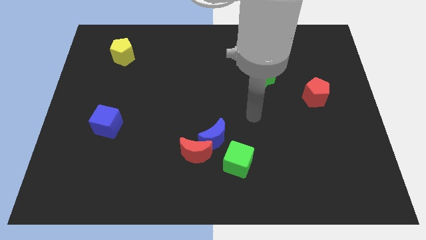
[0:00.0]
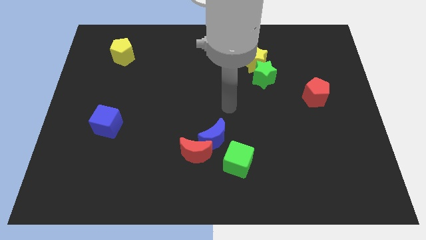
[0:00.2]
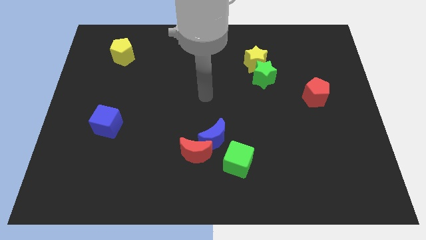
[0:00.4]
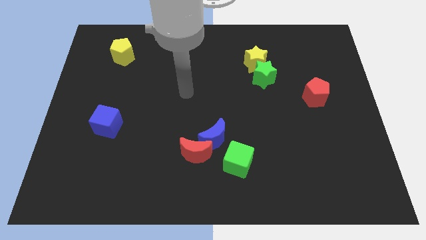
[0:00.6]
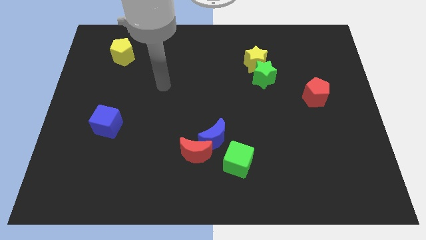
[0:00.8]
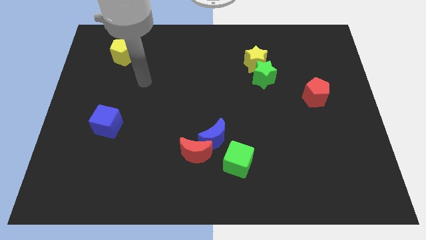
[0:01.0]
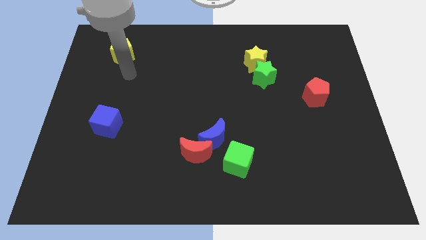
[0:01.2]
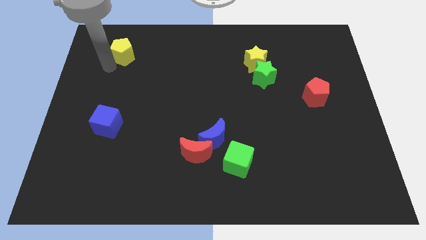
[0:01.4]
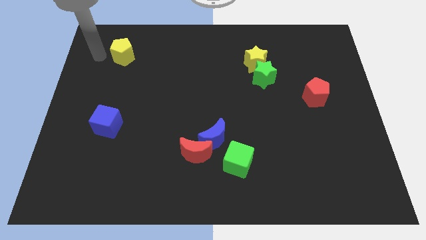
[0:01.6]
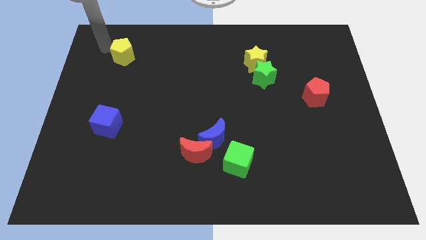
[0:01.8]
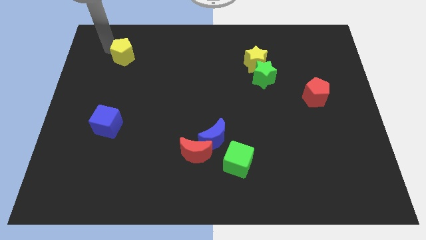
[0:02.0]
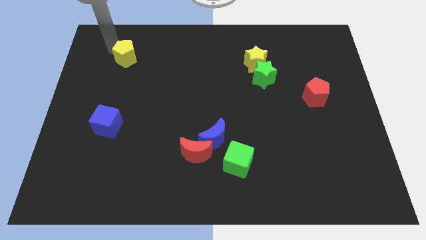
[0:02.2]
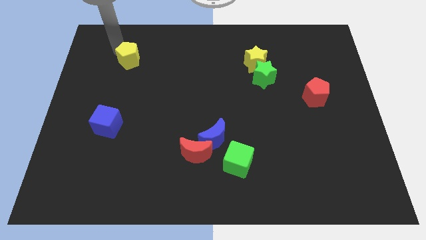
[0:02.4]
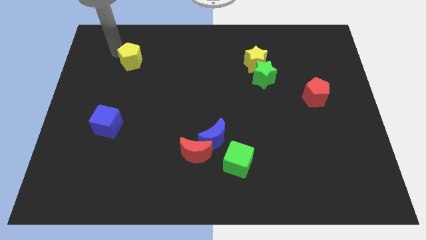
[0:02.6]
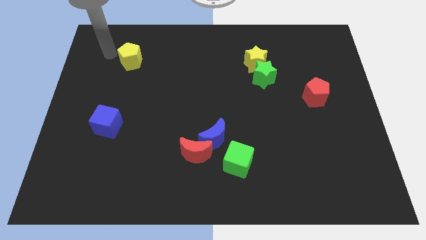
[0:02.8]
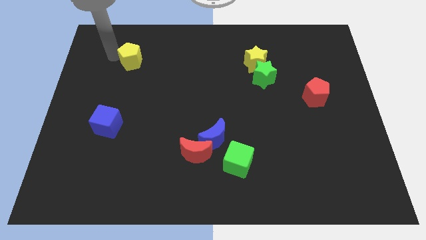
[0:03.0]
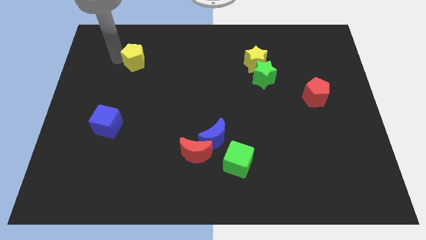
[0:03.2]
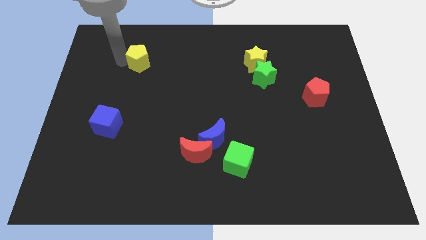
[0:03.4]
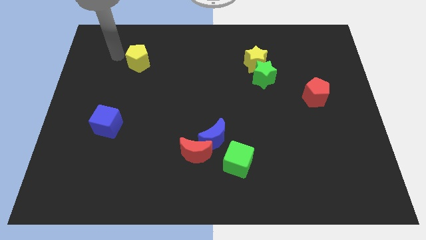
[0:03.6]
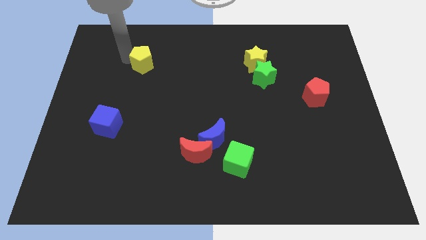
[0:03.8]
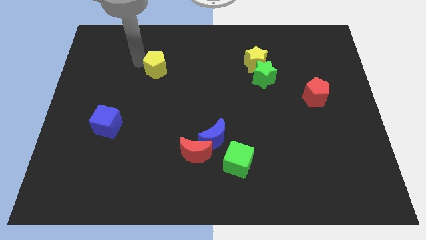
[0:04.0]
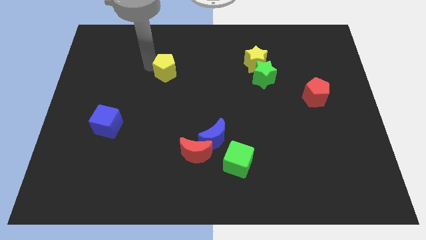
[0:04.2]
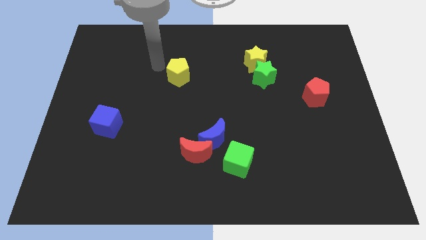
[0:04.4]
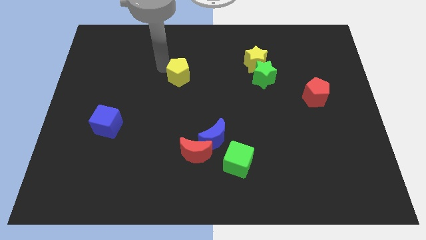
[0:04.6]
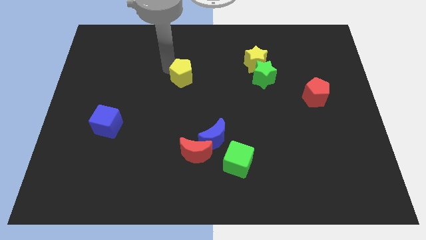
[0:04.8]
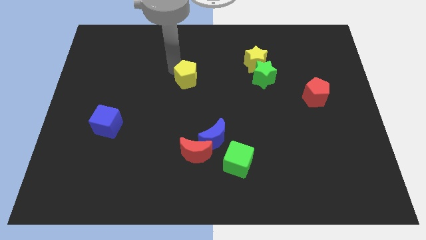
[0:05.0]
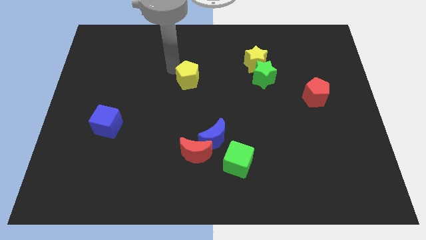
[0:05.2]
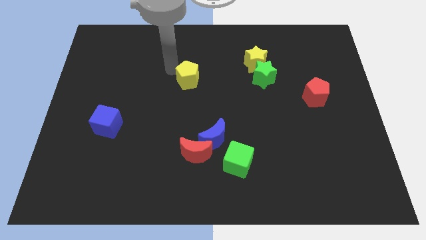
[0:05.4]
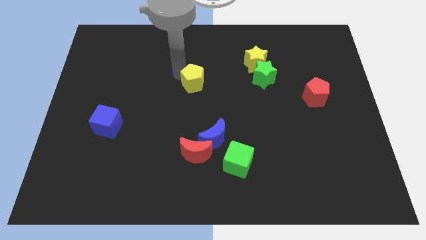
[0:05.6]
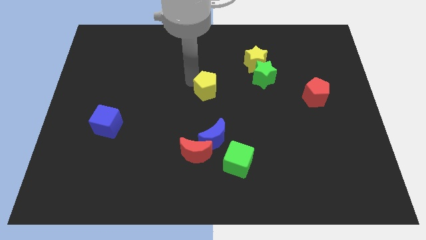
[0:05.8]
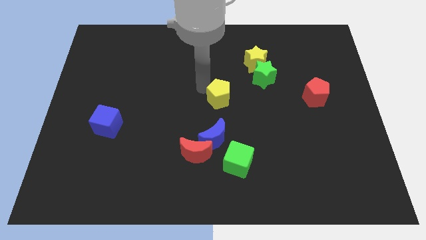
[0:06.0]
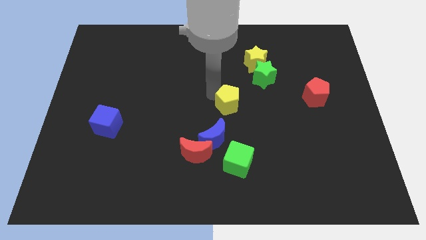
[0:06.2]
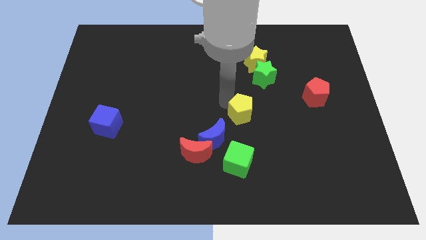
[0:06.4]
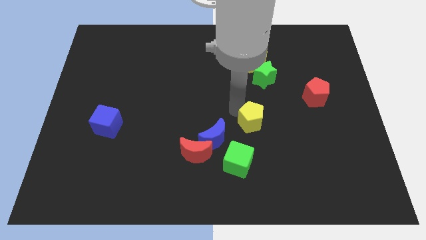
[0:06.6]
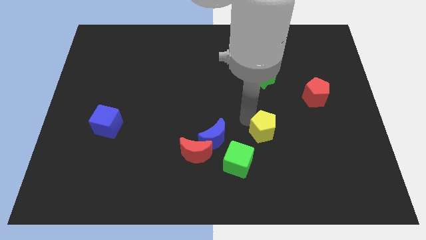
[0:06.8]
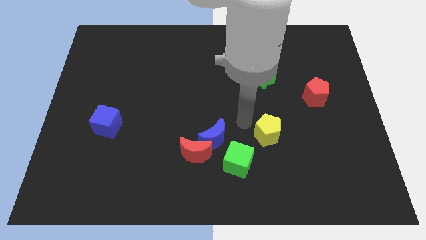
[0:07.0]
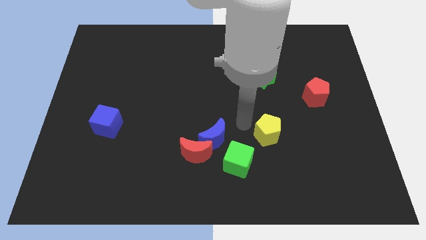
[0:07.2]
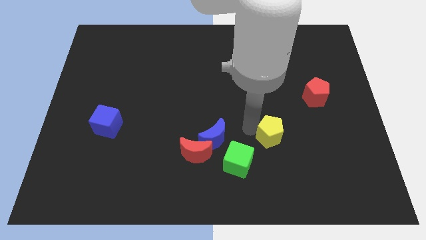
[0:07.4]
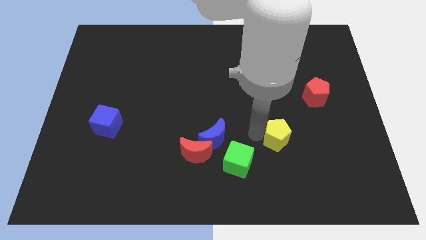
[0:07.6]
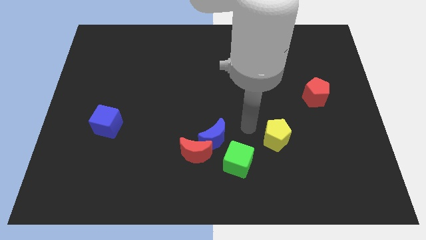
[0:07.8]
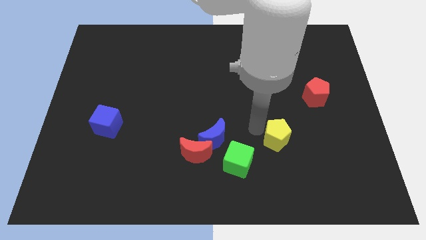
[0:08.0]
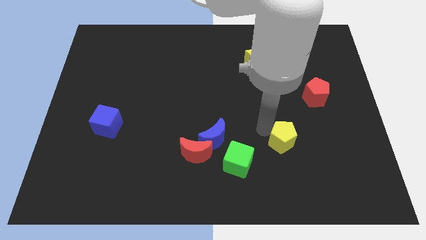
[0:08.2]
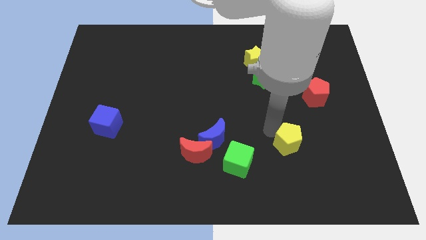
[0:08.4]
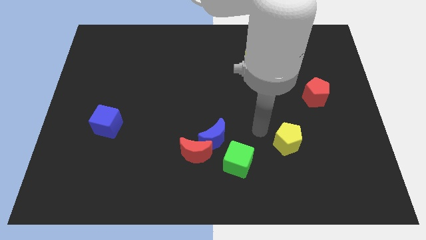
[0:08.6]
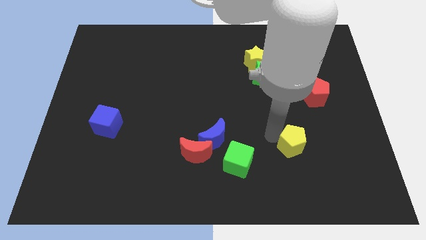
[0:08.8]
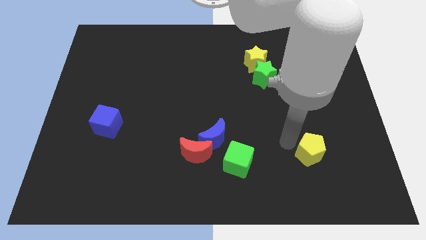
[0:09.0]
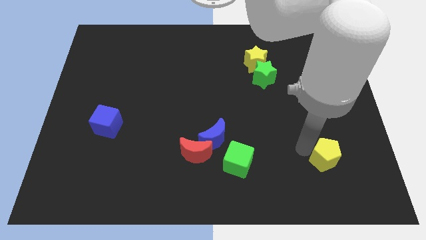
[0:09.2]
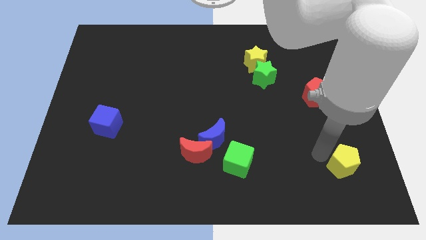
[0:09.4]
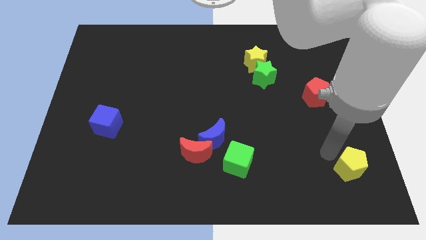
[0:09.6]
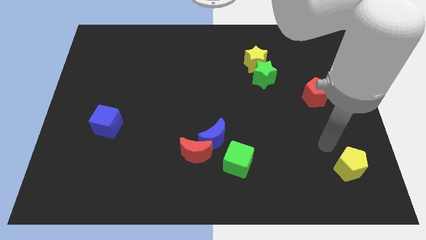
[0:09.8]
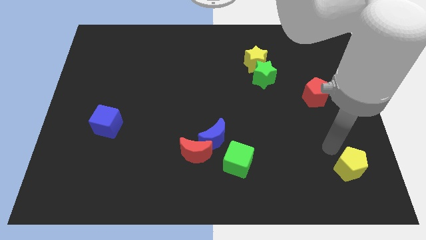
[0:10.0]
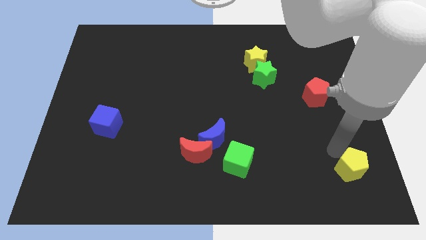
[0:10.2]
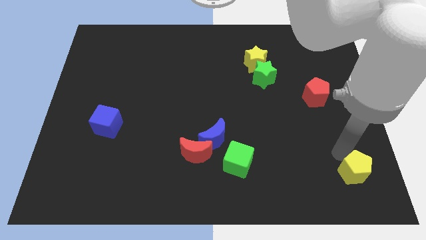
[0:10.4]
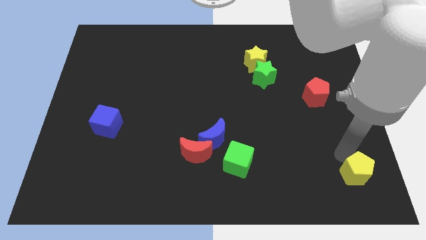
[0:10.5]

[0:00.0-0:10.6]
slide the yellow pentagon to the bottom right of the board

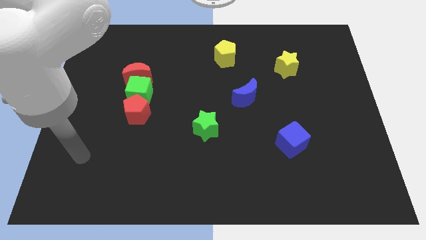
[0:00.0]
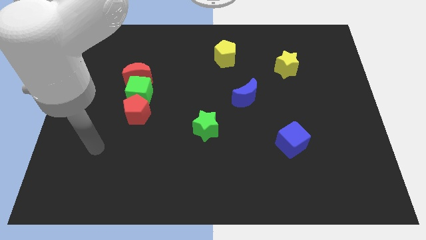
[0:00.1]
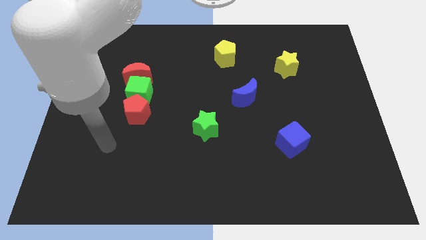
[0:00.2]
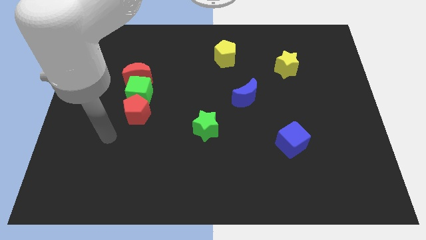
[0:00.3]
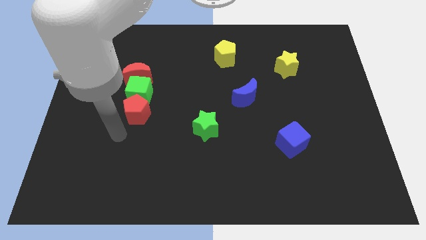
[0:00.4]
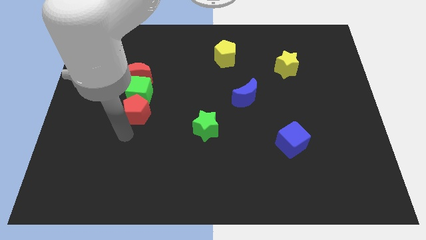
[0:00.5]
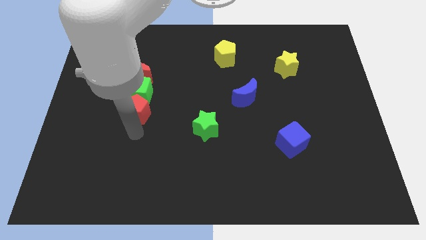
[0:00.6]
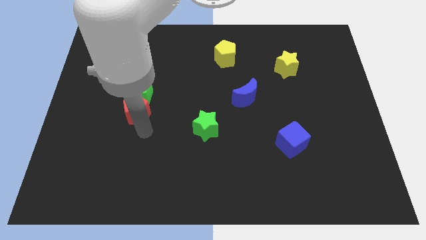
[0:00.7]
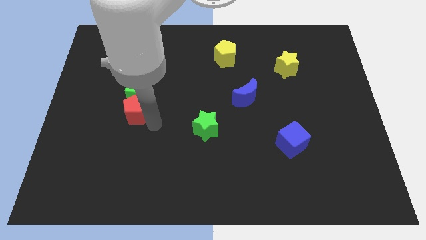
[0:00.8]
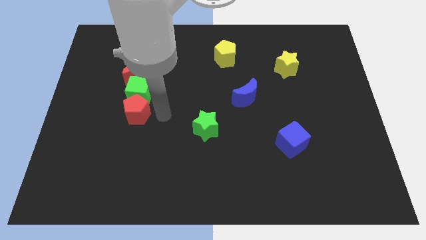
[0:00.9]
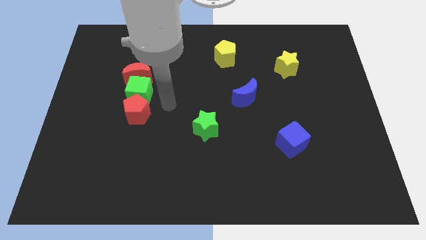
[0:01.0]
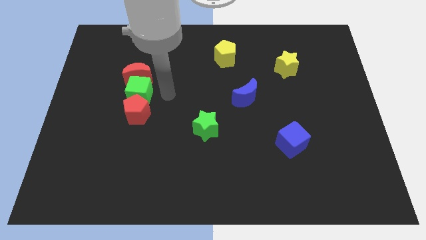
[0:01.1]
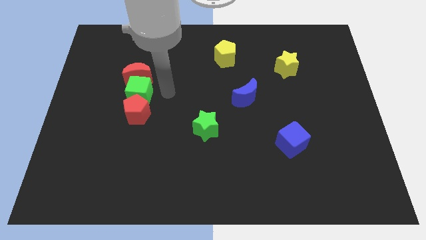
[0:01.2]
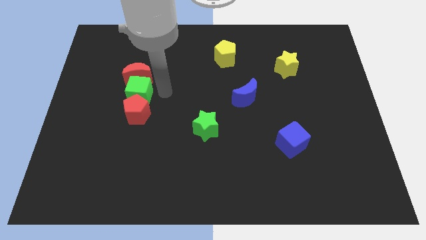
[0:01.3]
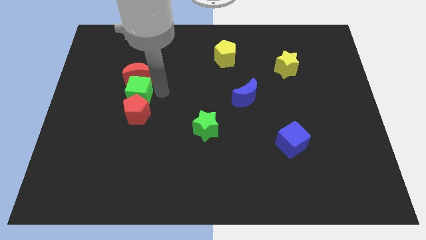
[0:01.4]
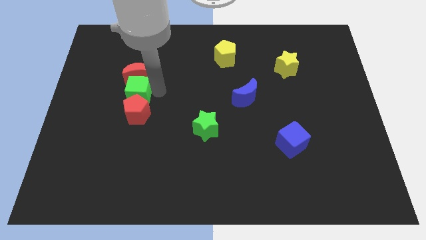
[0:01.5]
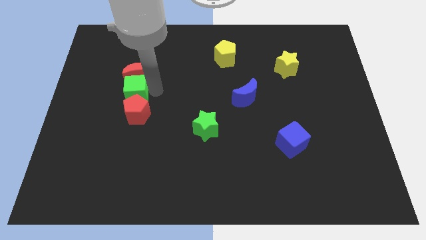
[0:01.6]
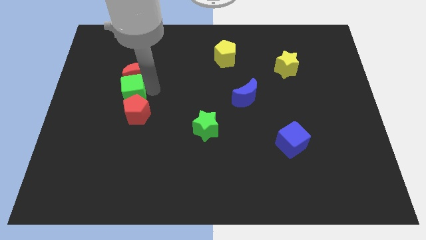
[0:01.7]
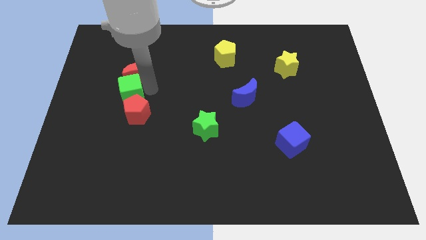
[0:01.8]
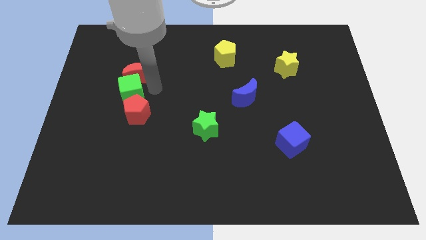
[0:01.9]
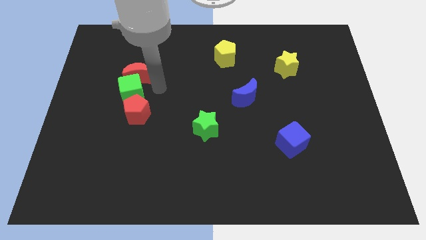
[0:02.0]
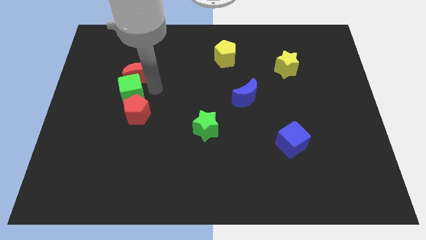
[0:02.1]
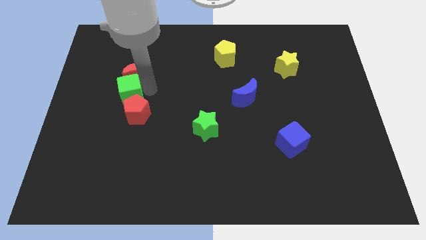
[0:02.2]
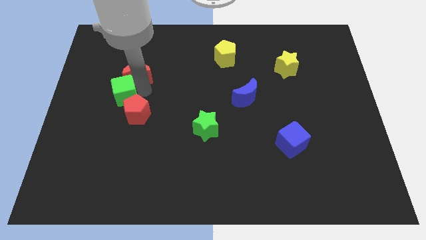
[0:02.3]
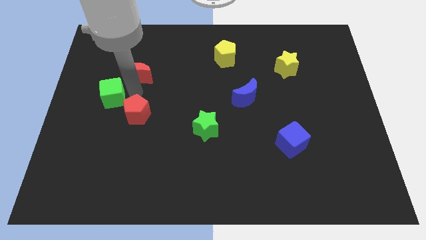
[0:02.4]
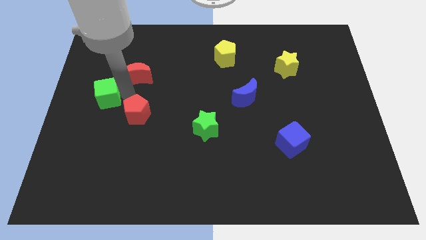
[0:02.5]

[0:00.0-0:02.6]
push the green cube to the left side
